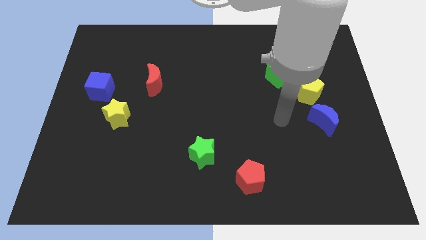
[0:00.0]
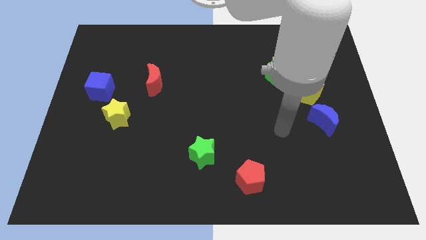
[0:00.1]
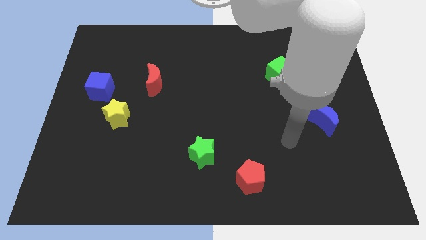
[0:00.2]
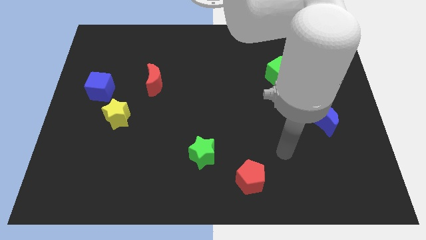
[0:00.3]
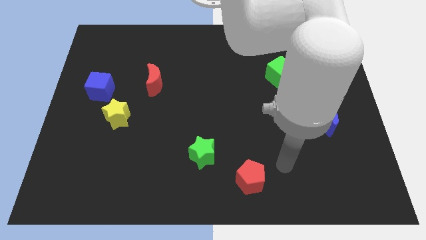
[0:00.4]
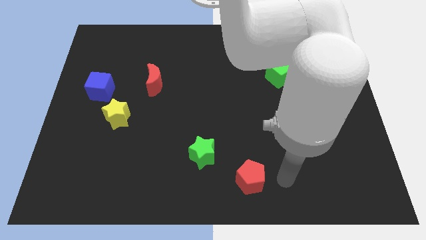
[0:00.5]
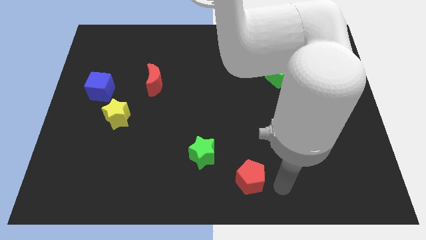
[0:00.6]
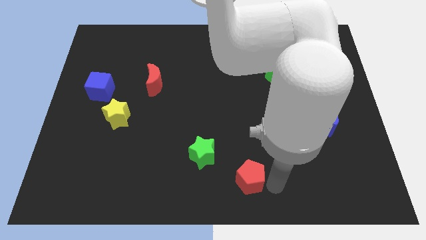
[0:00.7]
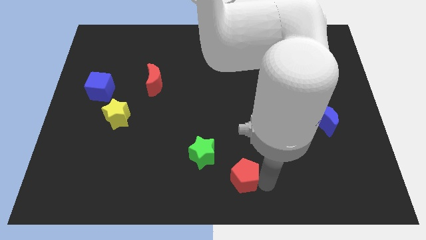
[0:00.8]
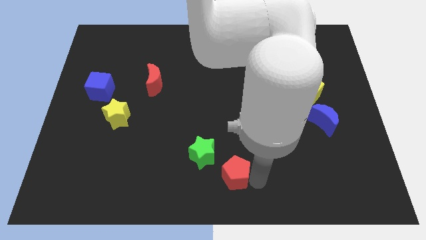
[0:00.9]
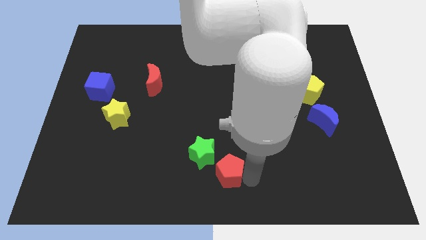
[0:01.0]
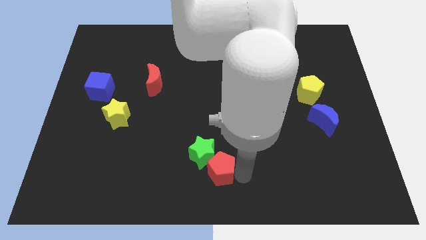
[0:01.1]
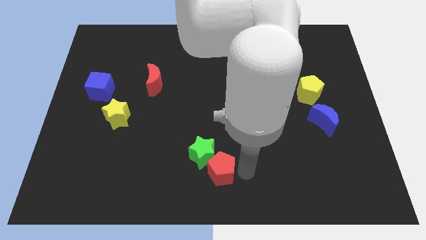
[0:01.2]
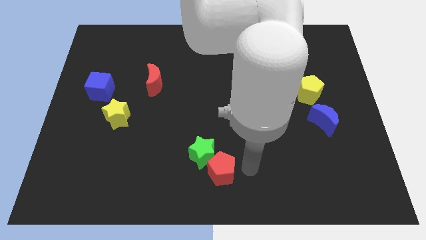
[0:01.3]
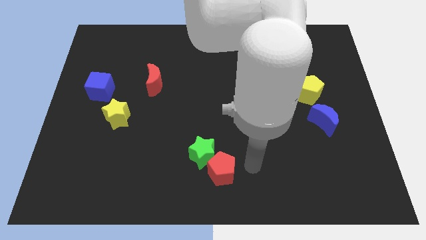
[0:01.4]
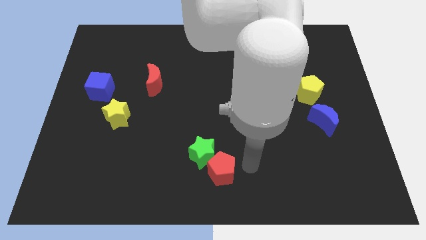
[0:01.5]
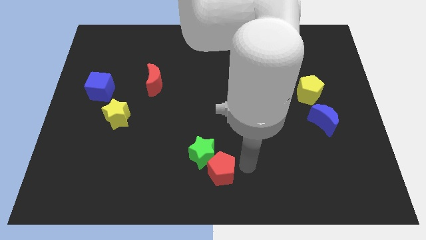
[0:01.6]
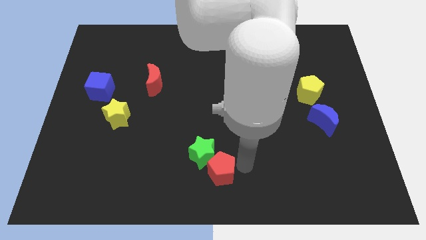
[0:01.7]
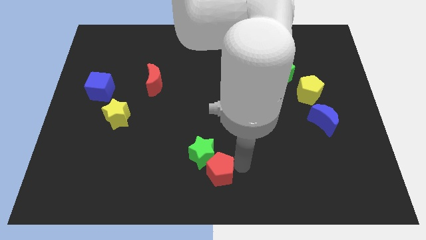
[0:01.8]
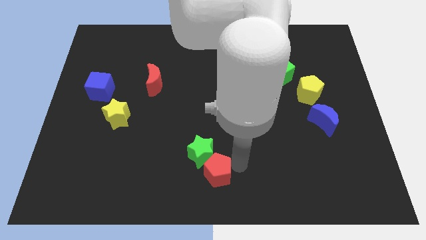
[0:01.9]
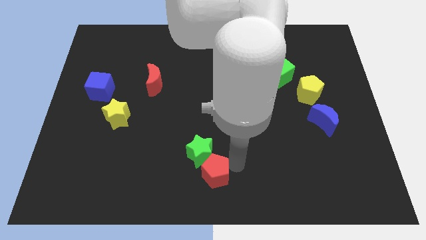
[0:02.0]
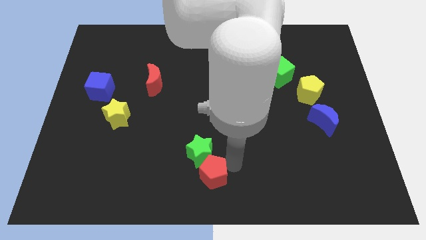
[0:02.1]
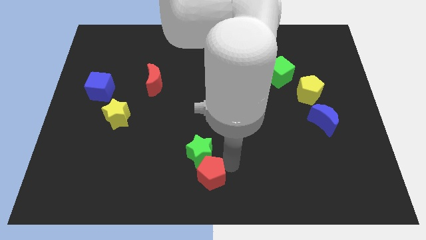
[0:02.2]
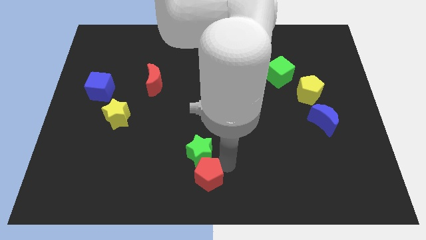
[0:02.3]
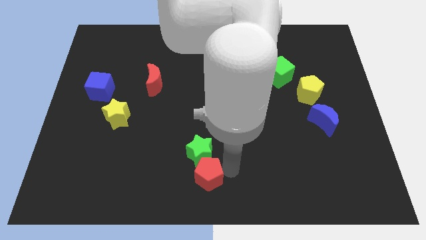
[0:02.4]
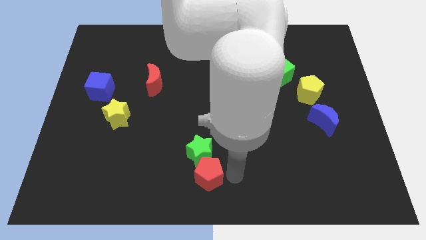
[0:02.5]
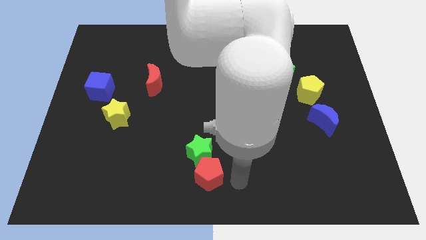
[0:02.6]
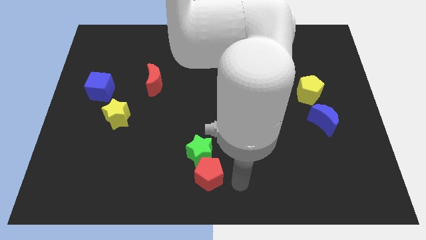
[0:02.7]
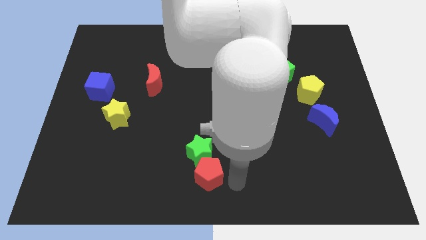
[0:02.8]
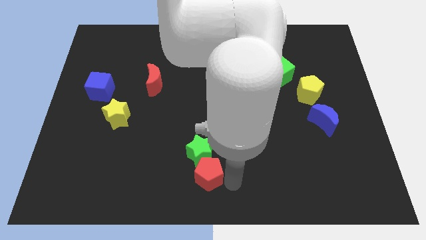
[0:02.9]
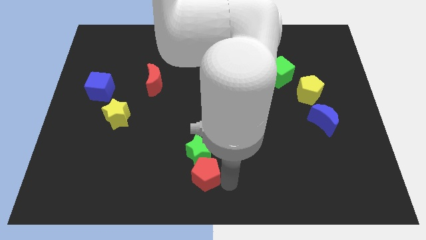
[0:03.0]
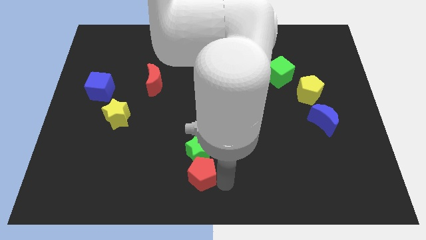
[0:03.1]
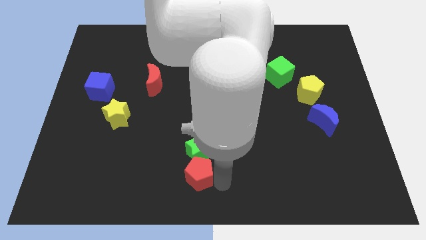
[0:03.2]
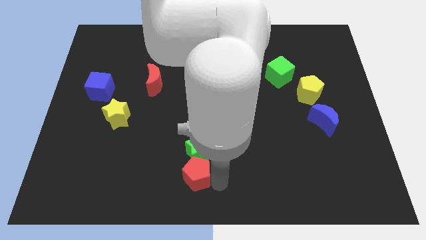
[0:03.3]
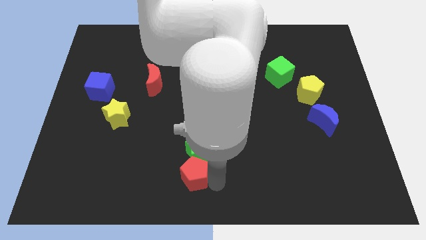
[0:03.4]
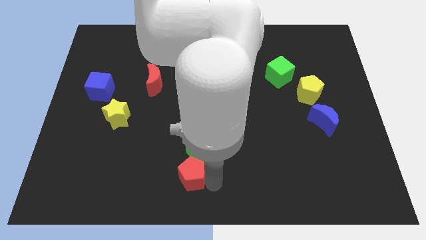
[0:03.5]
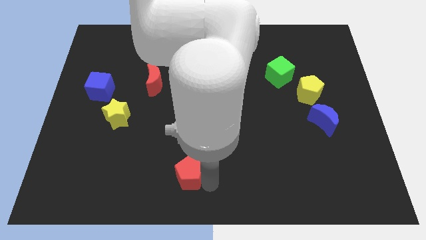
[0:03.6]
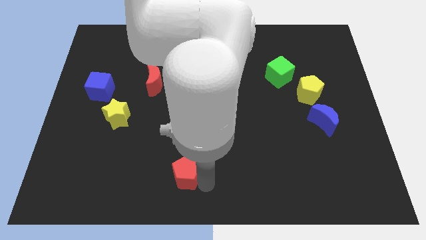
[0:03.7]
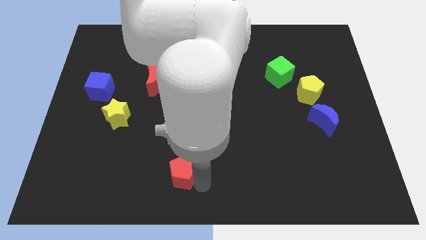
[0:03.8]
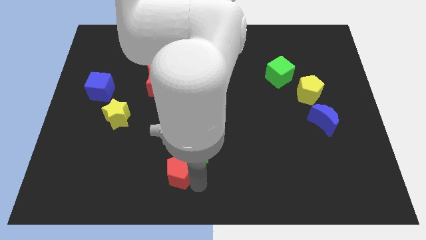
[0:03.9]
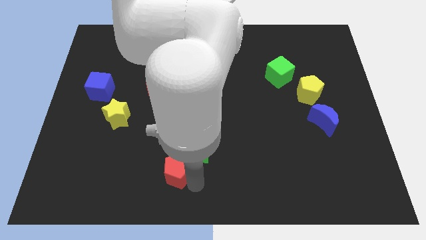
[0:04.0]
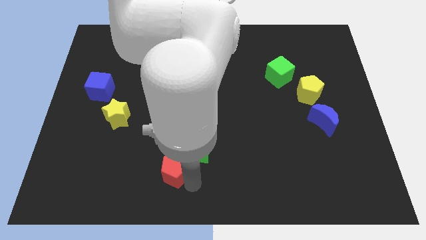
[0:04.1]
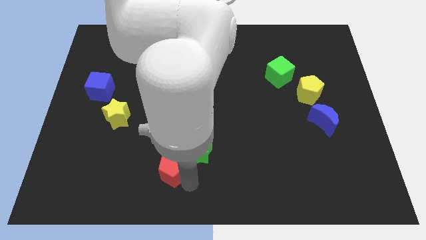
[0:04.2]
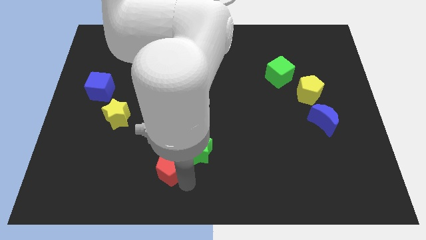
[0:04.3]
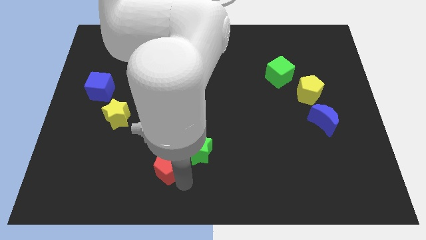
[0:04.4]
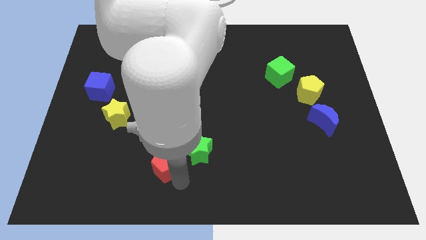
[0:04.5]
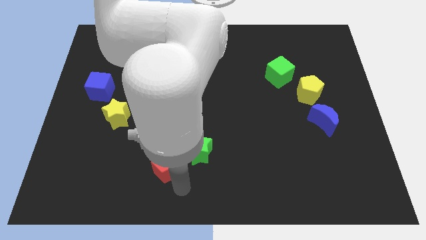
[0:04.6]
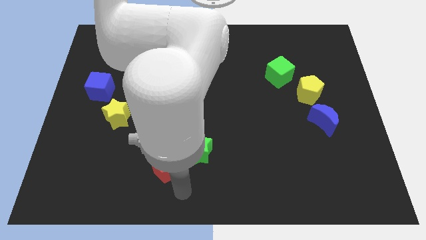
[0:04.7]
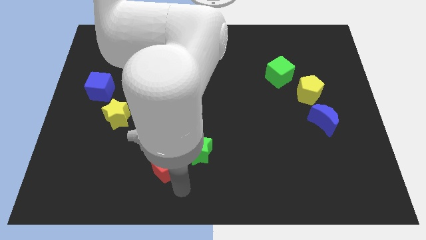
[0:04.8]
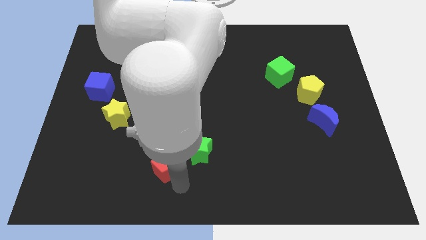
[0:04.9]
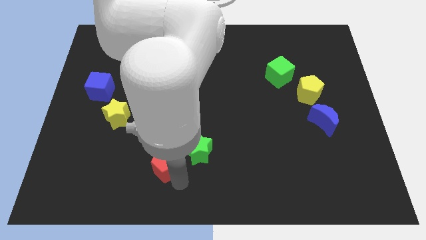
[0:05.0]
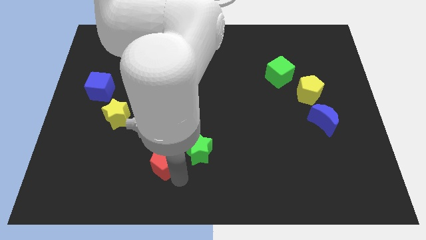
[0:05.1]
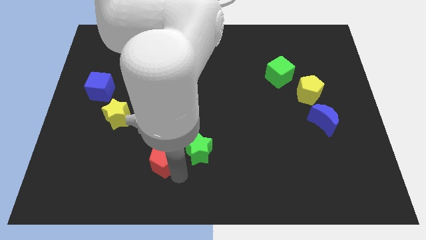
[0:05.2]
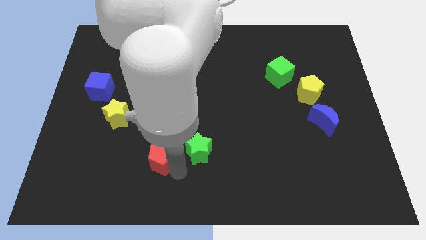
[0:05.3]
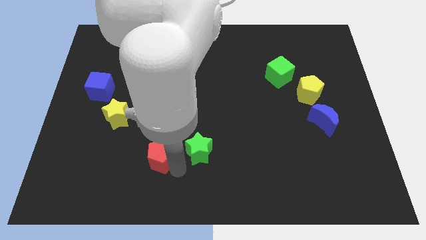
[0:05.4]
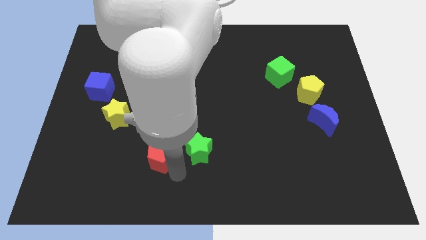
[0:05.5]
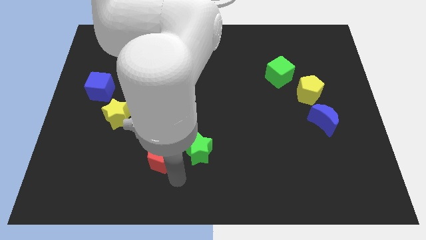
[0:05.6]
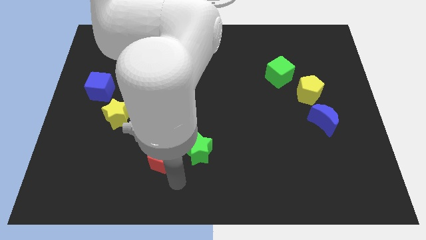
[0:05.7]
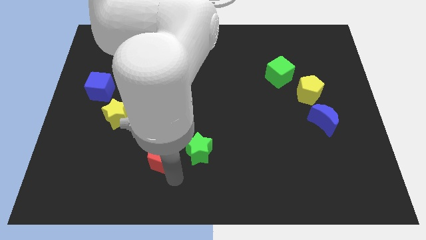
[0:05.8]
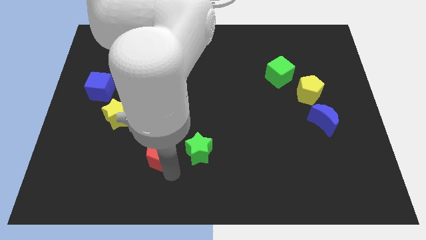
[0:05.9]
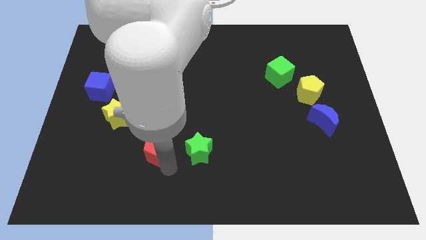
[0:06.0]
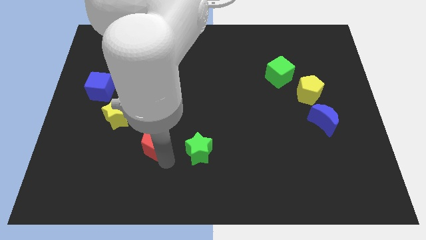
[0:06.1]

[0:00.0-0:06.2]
push the red pentagon to the bottom right of the yellow star
